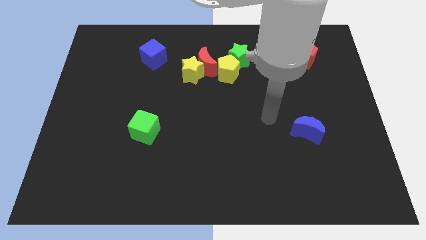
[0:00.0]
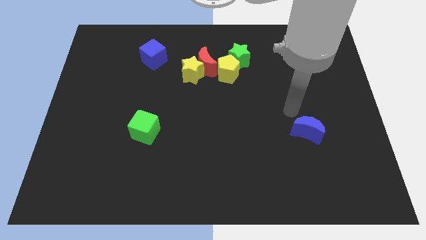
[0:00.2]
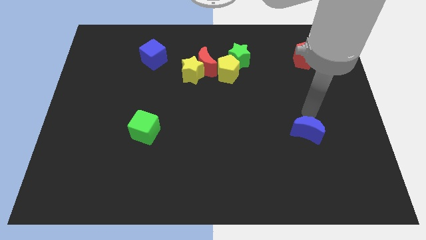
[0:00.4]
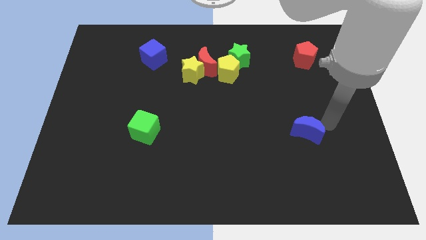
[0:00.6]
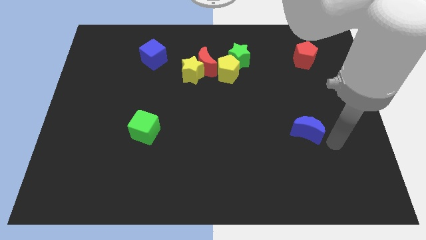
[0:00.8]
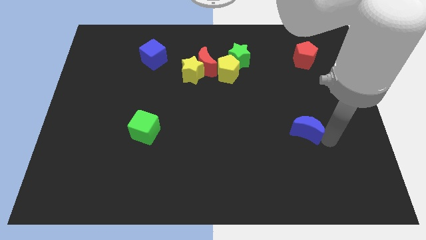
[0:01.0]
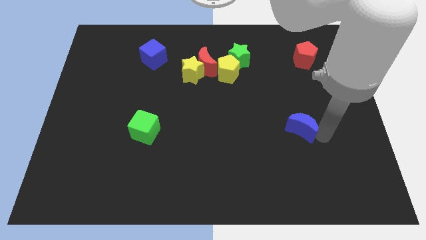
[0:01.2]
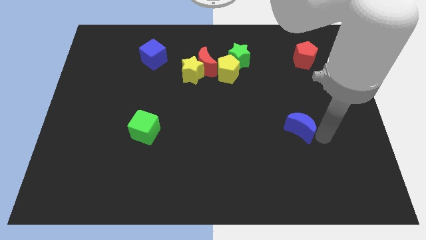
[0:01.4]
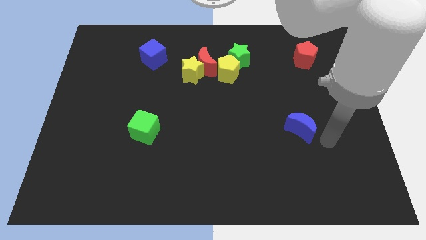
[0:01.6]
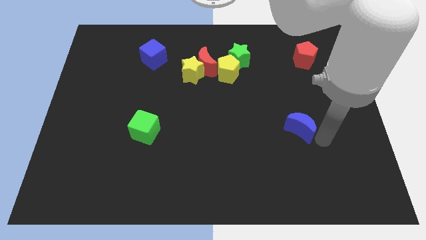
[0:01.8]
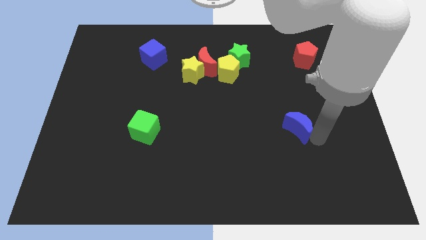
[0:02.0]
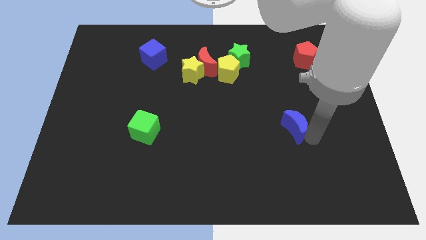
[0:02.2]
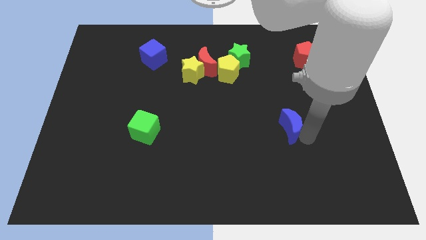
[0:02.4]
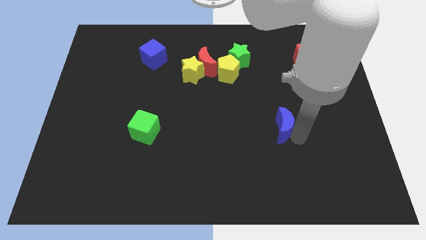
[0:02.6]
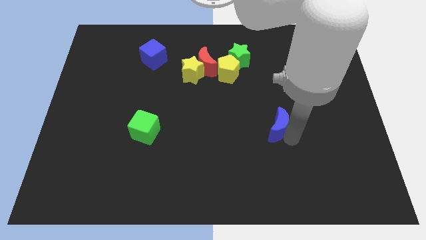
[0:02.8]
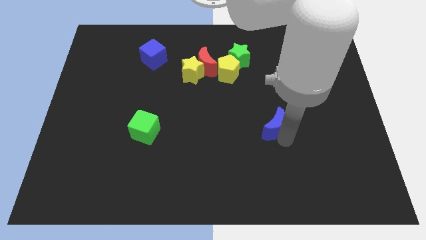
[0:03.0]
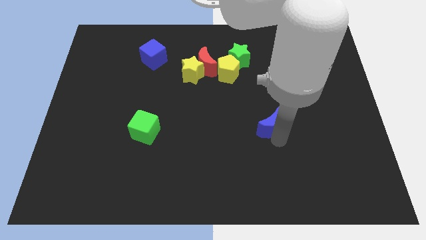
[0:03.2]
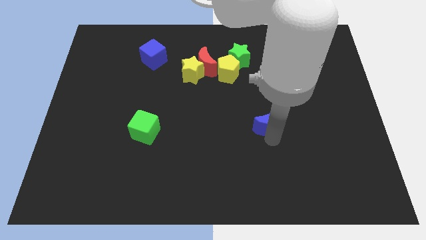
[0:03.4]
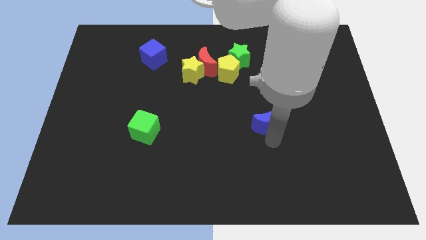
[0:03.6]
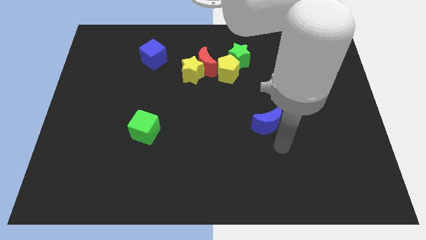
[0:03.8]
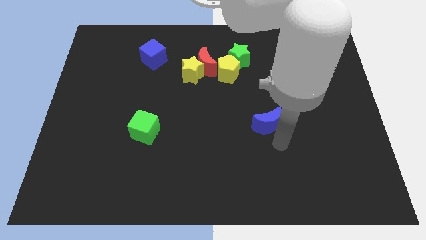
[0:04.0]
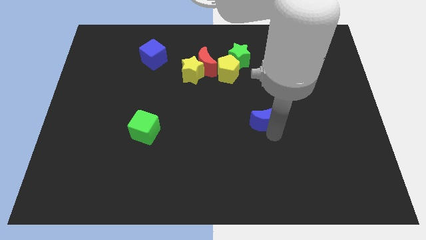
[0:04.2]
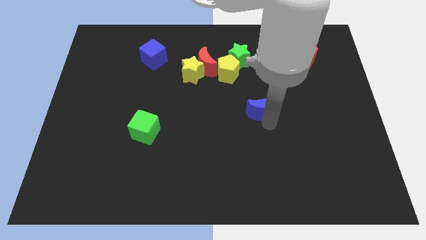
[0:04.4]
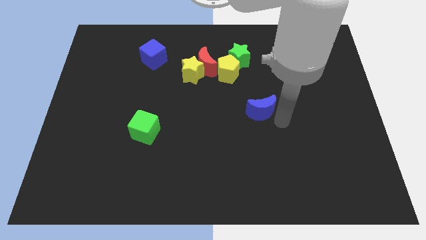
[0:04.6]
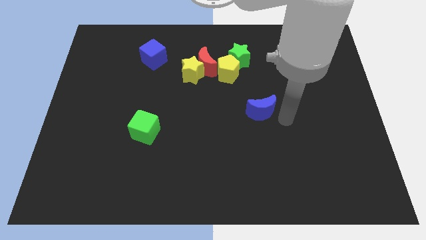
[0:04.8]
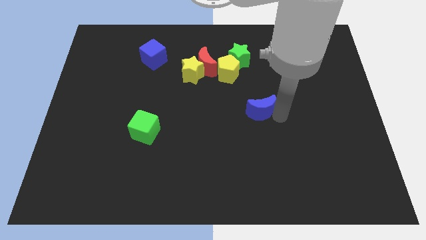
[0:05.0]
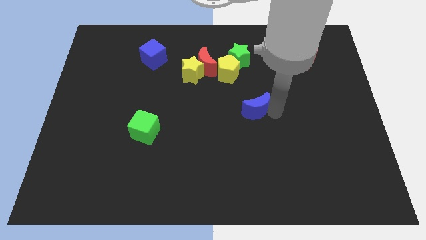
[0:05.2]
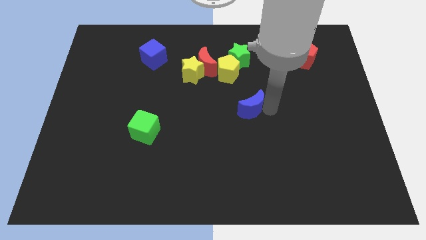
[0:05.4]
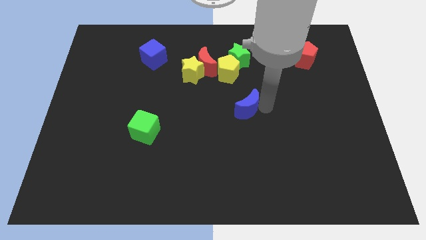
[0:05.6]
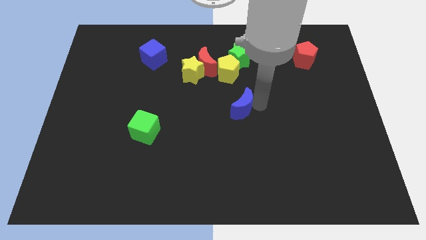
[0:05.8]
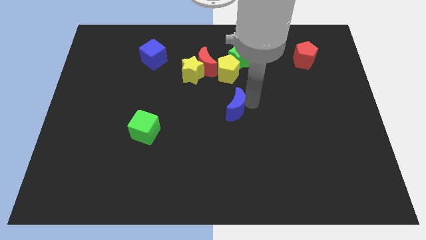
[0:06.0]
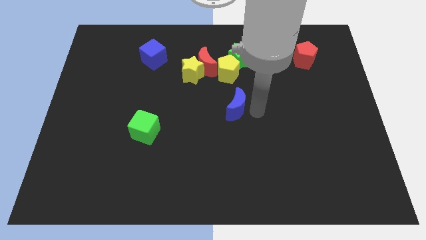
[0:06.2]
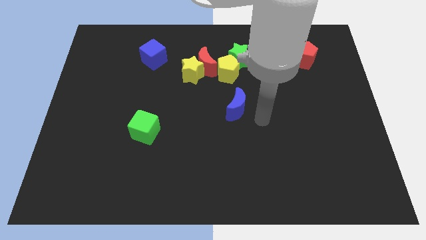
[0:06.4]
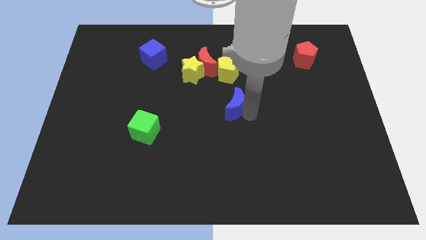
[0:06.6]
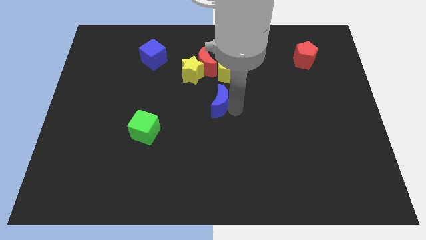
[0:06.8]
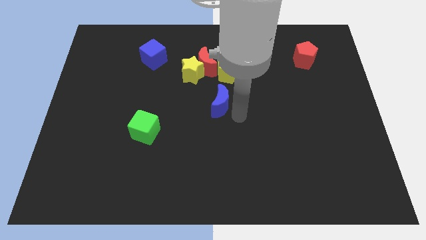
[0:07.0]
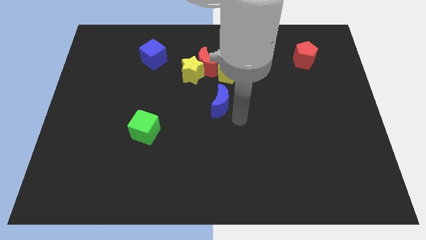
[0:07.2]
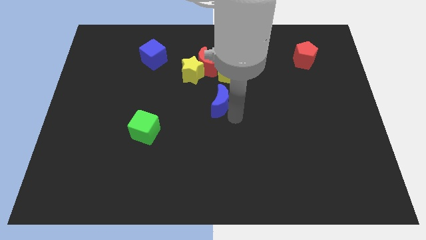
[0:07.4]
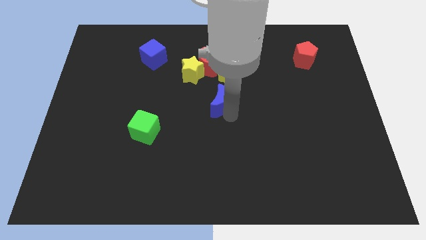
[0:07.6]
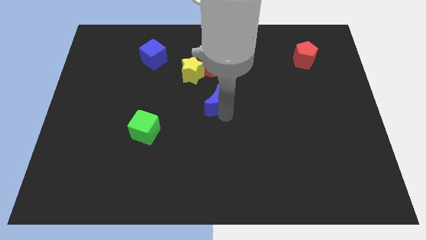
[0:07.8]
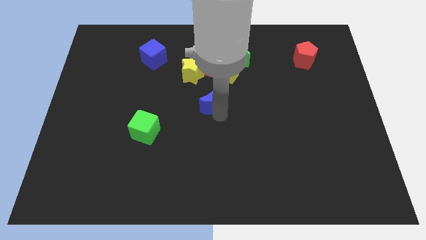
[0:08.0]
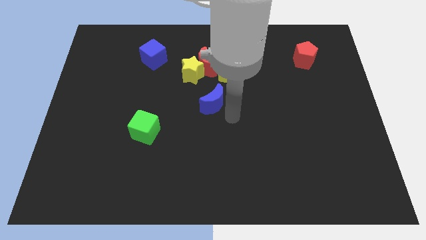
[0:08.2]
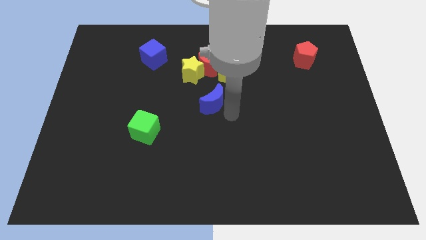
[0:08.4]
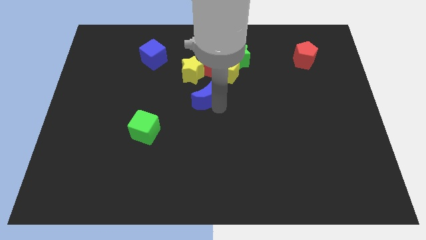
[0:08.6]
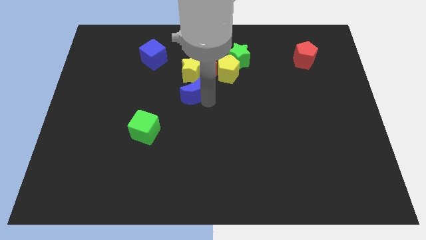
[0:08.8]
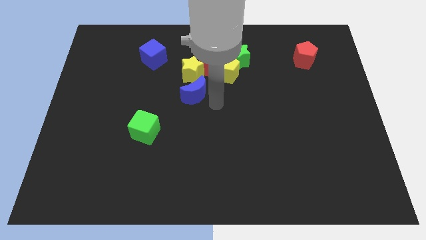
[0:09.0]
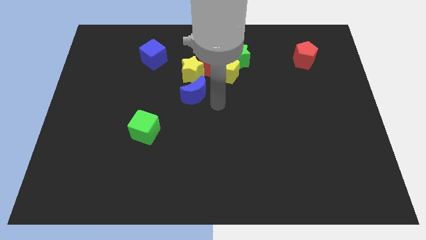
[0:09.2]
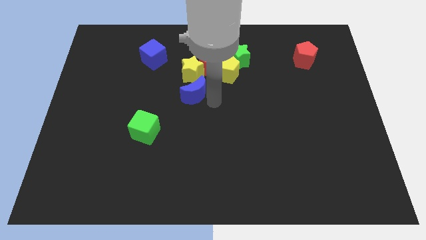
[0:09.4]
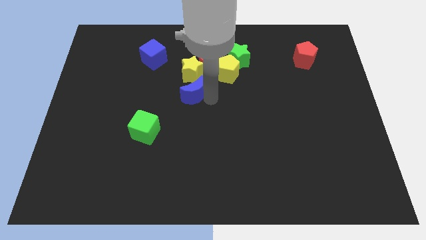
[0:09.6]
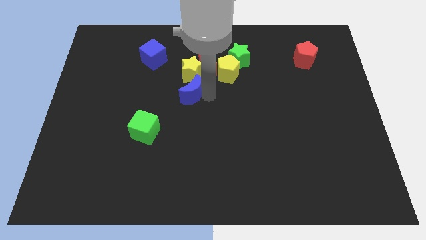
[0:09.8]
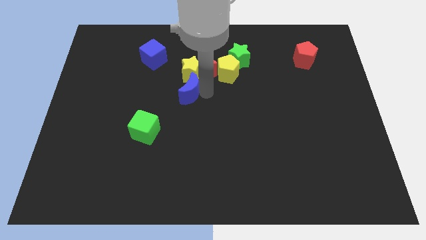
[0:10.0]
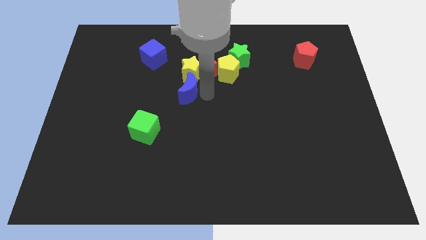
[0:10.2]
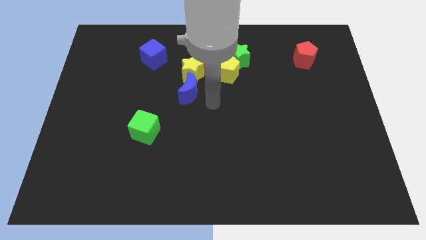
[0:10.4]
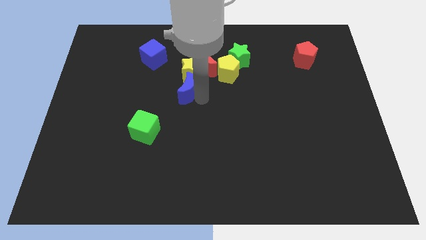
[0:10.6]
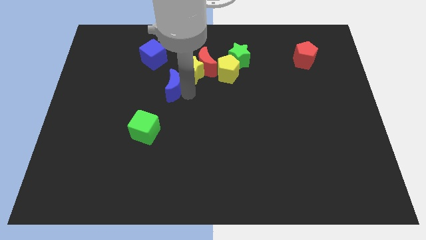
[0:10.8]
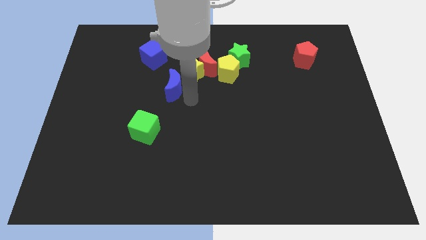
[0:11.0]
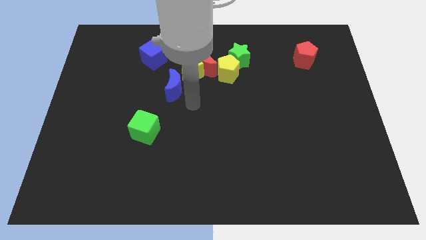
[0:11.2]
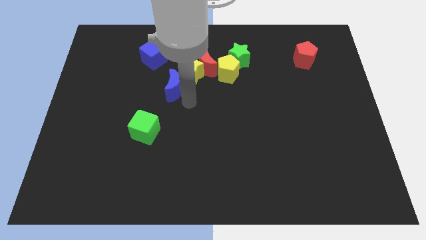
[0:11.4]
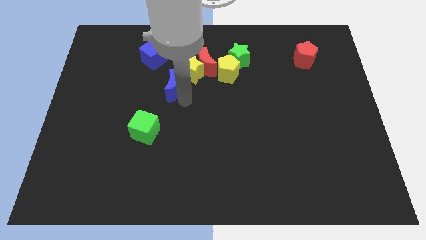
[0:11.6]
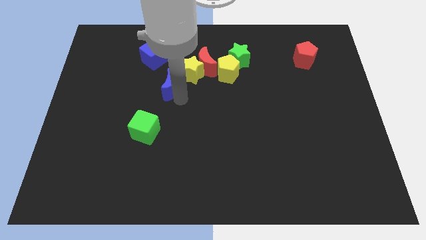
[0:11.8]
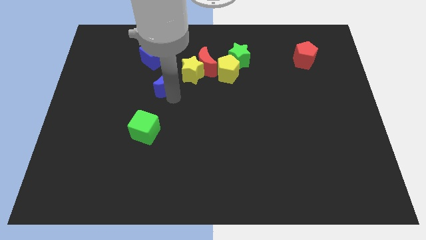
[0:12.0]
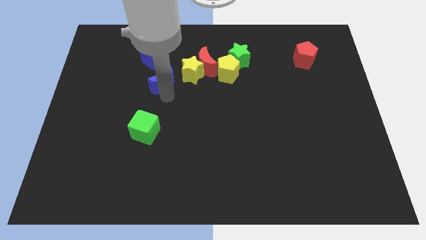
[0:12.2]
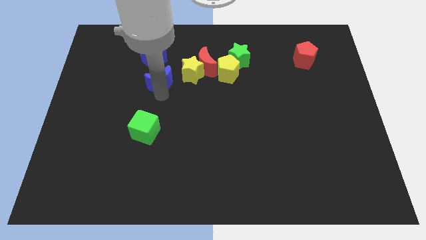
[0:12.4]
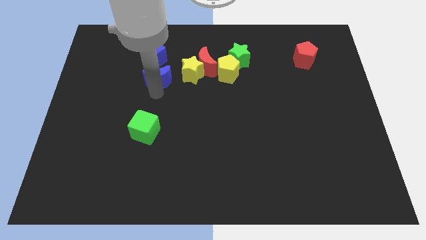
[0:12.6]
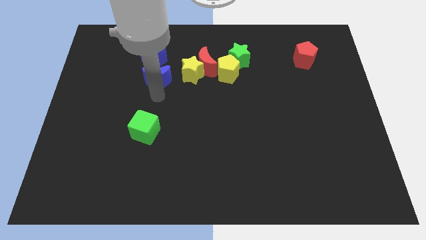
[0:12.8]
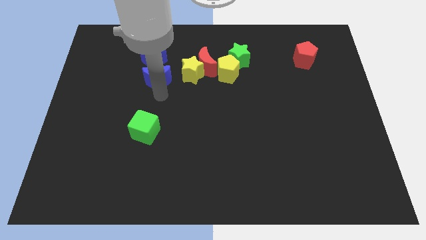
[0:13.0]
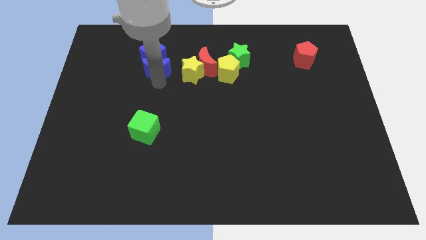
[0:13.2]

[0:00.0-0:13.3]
push the blue moon close to the blue cube
